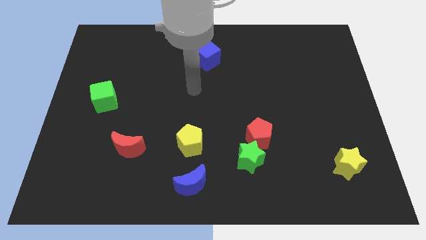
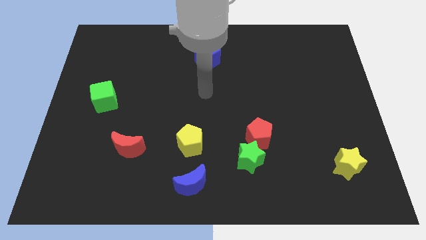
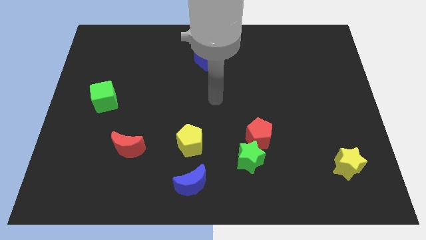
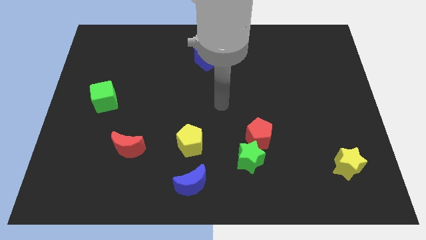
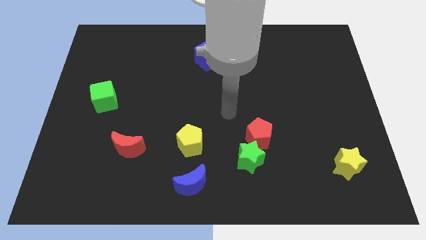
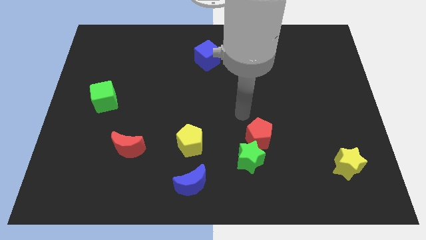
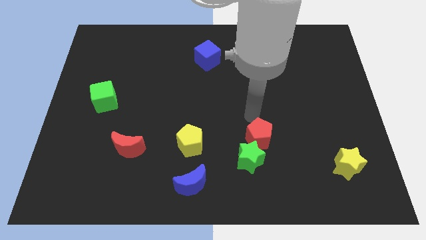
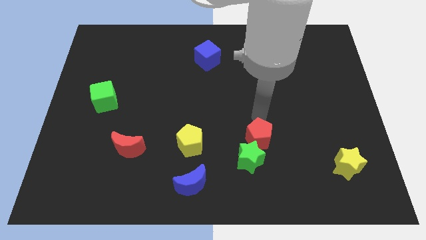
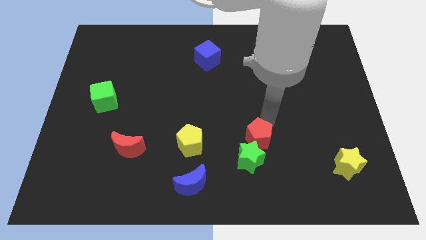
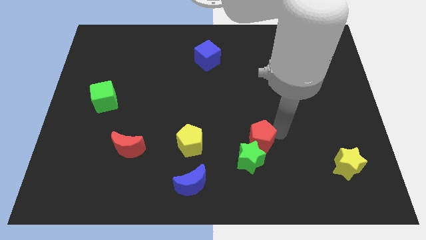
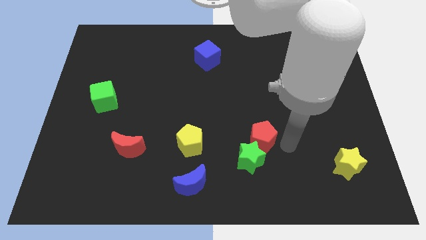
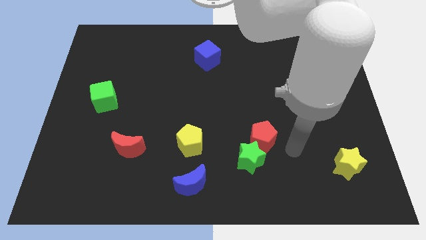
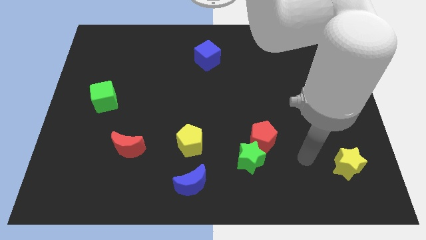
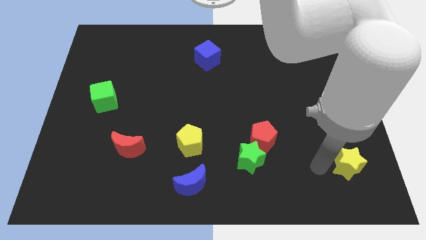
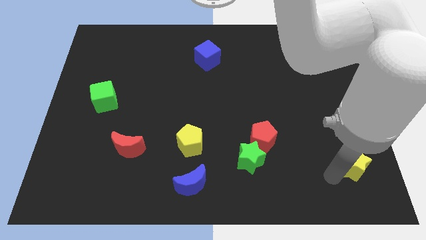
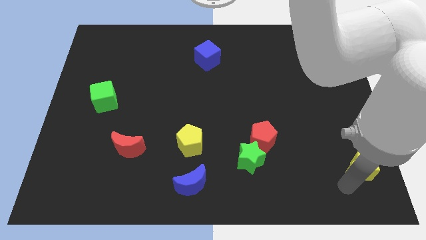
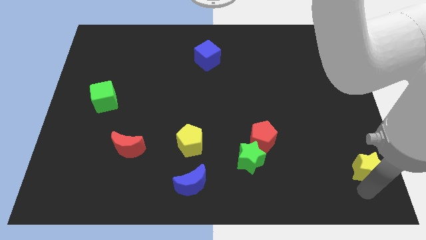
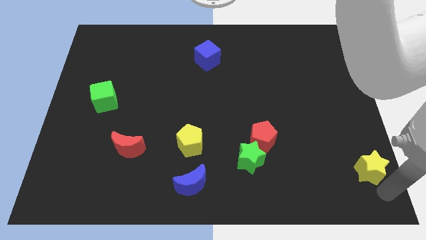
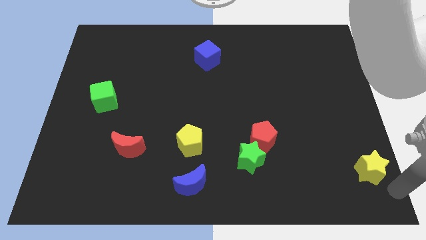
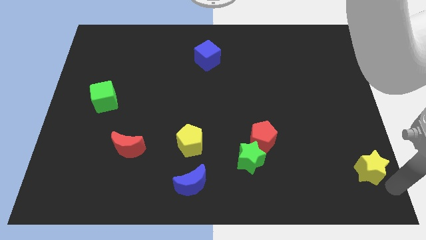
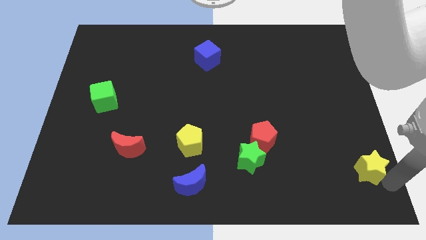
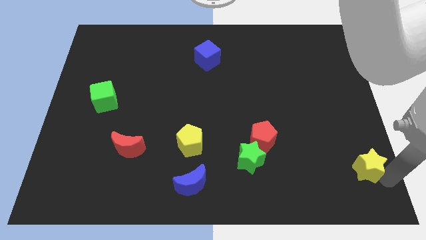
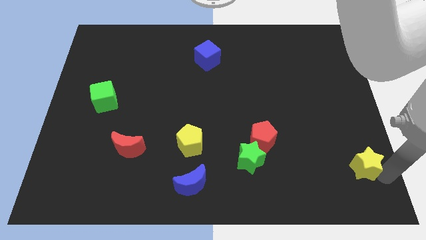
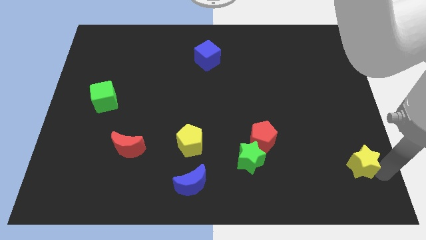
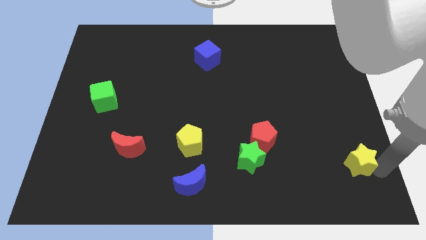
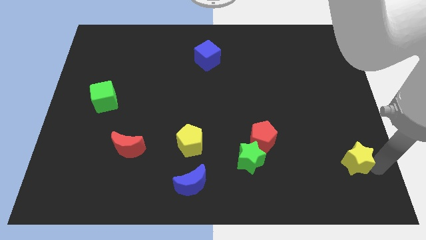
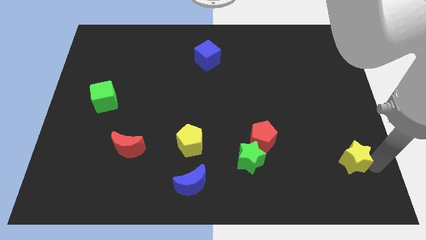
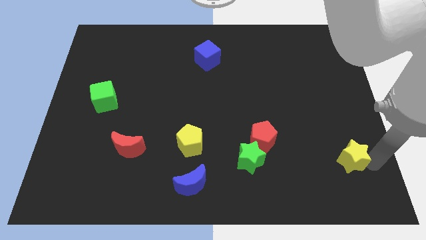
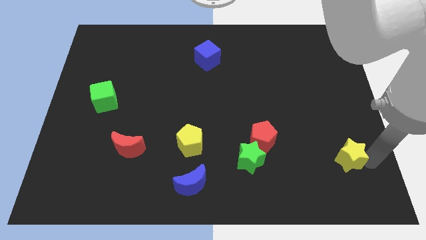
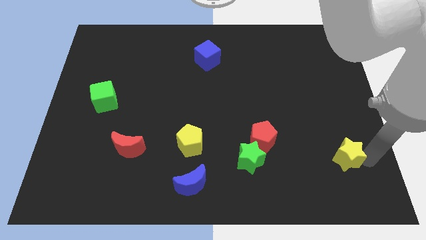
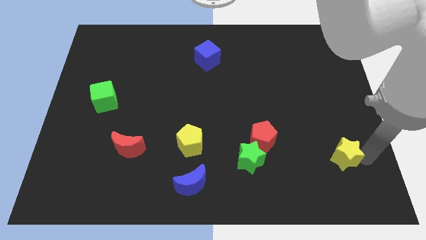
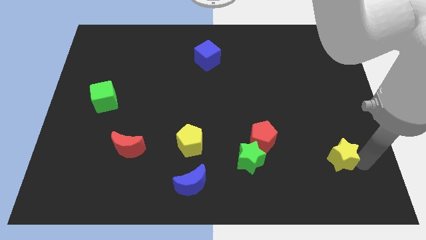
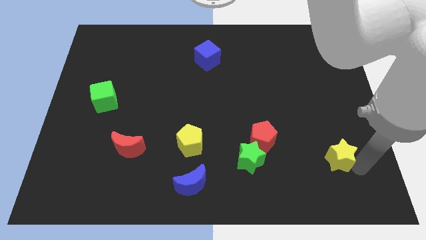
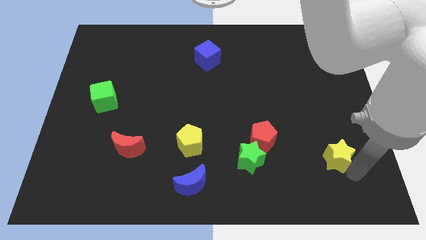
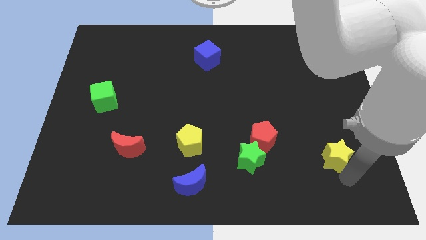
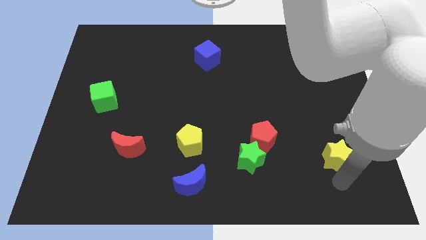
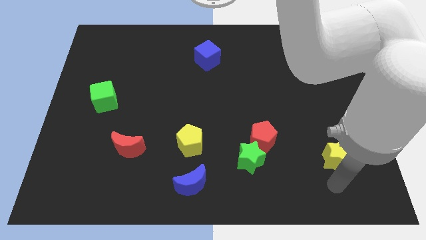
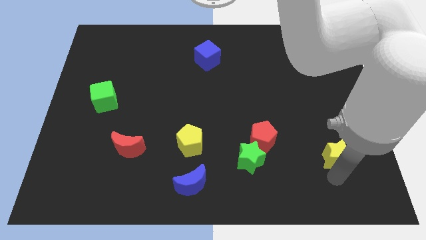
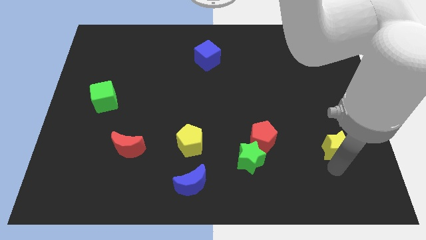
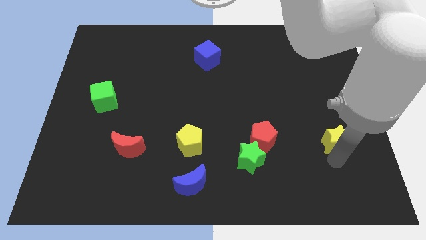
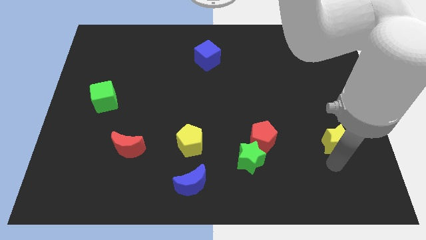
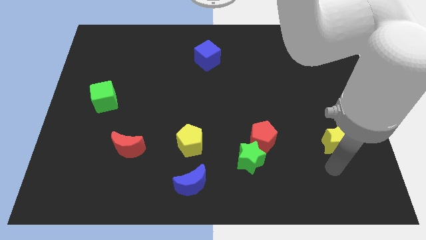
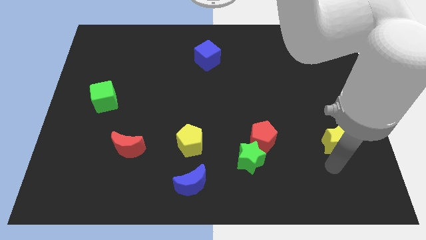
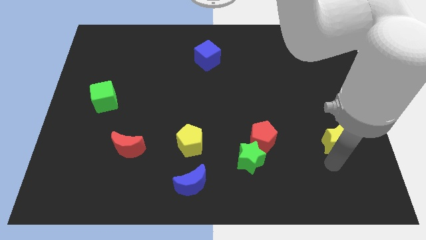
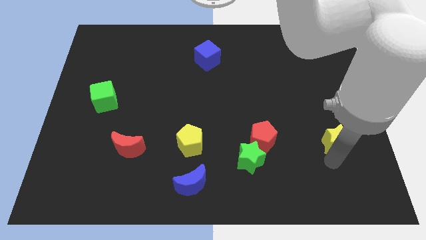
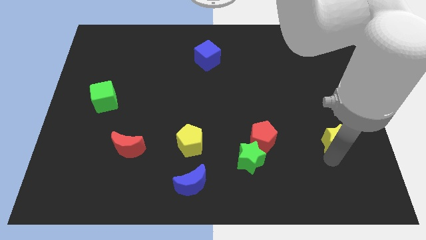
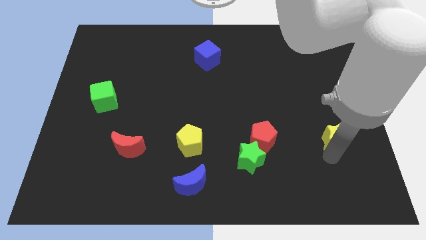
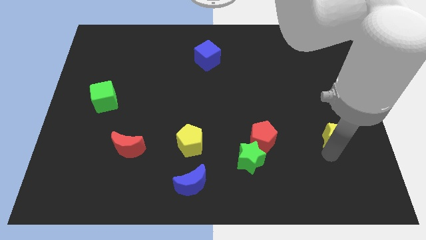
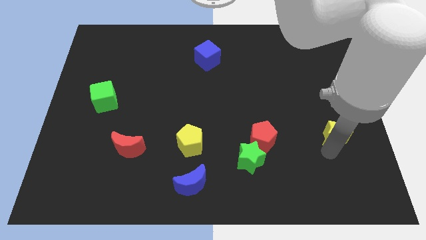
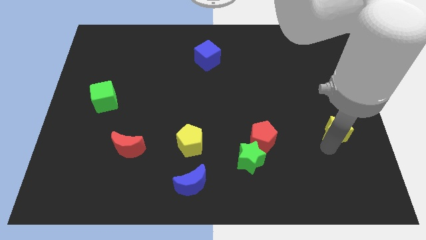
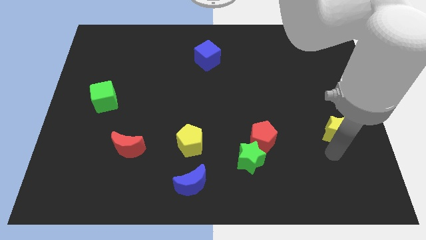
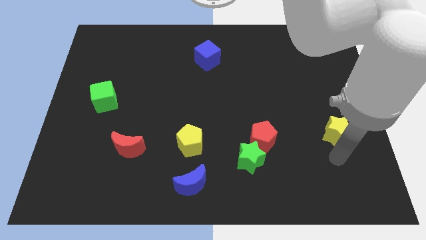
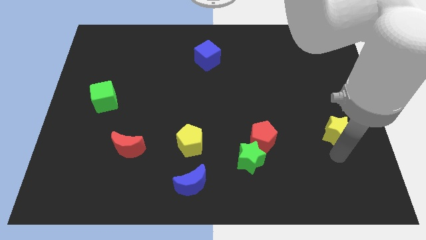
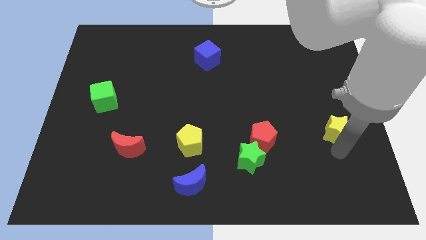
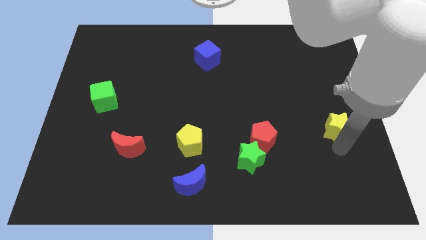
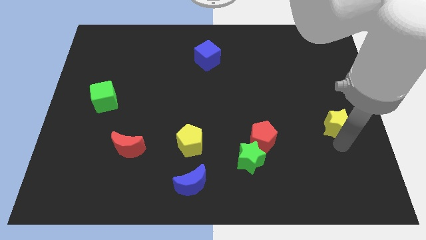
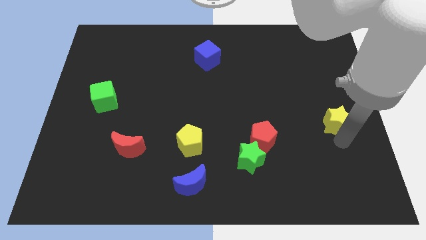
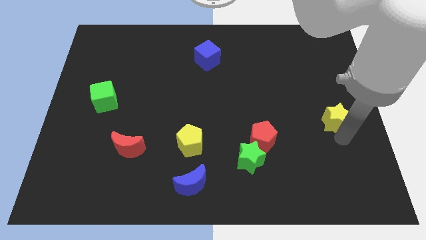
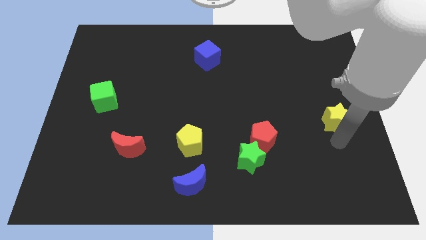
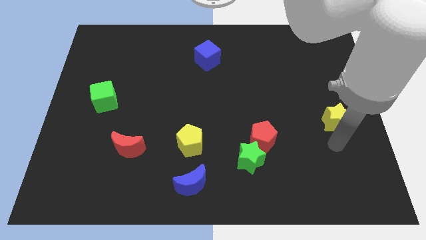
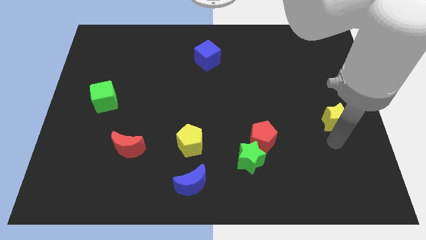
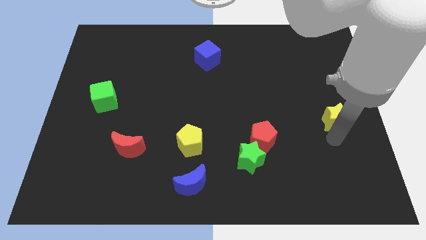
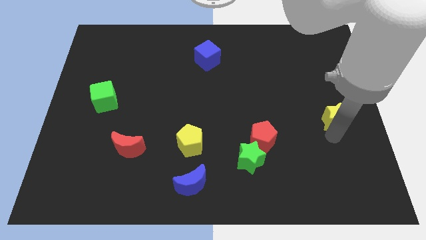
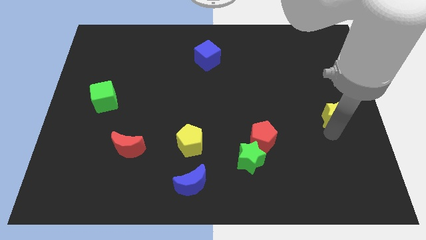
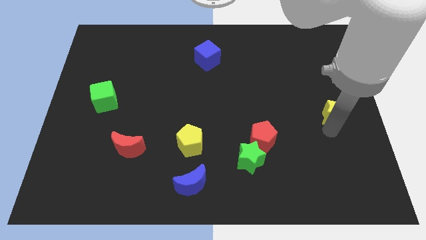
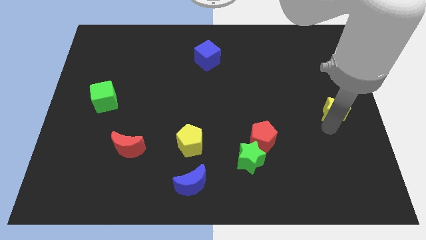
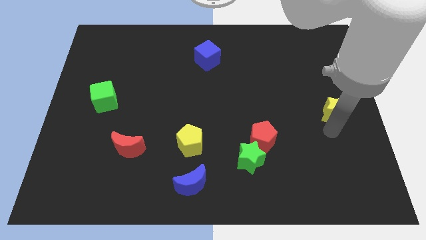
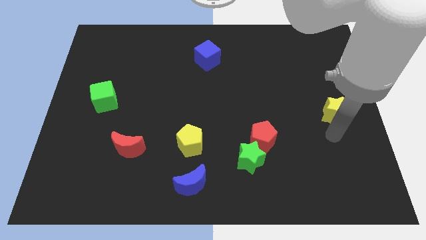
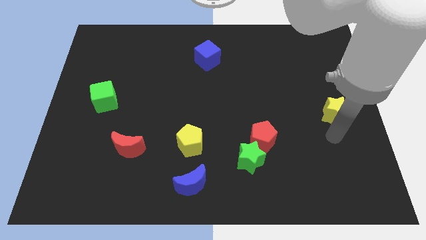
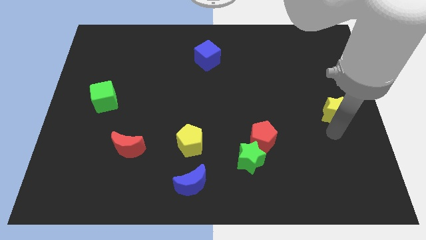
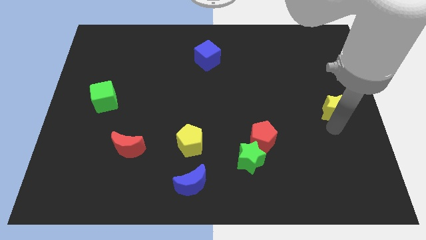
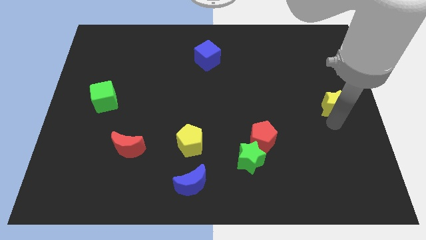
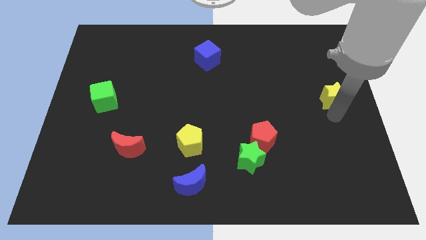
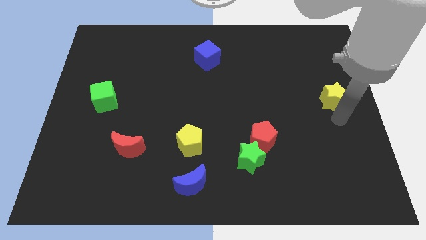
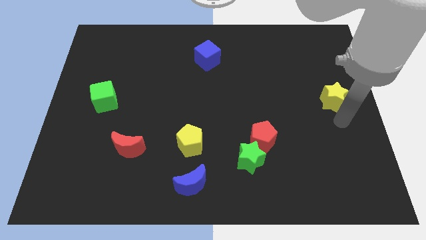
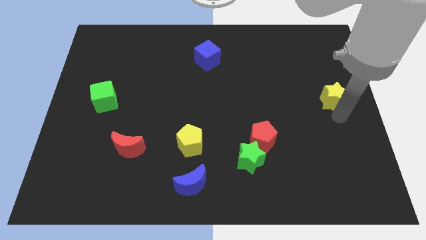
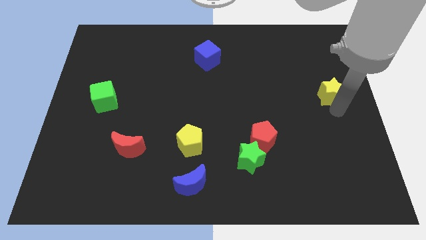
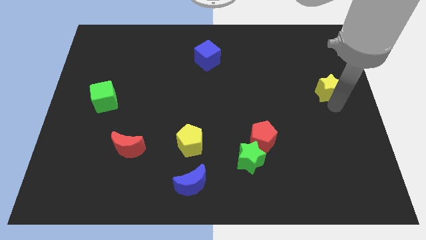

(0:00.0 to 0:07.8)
move the yellow star up

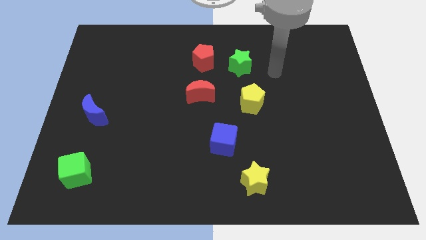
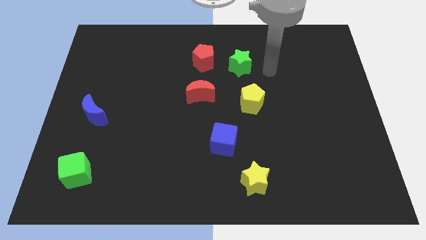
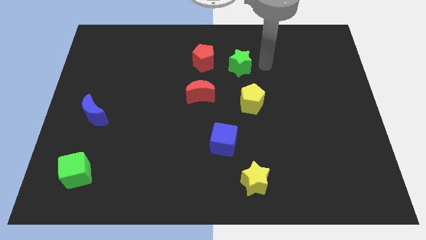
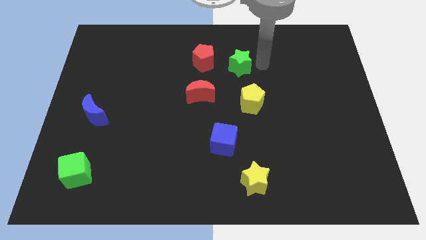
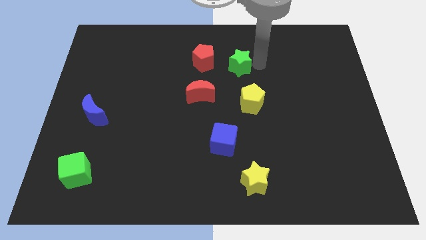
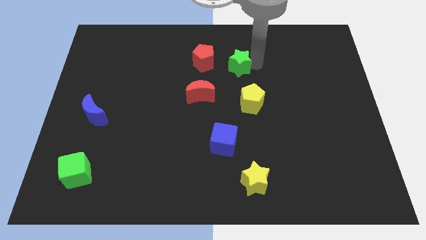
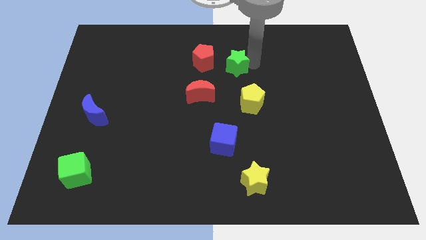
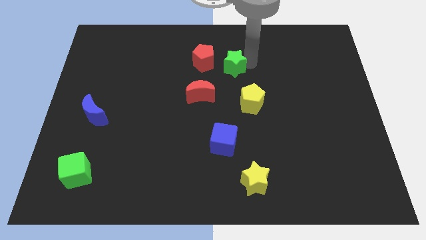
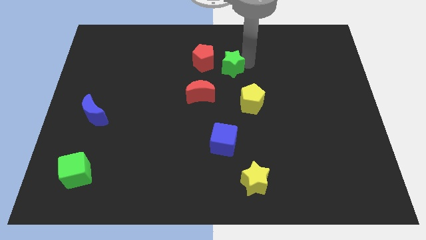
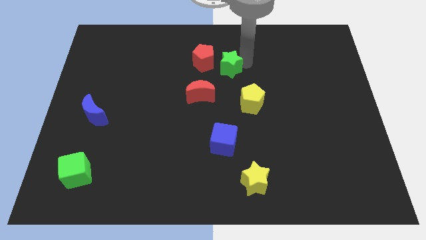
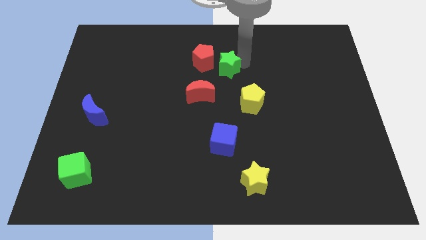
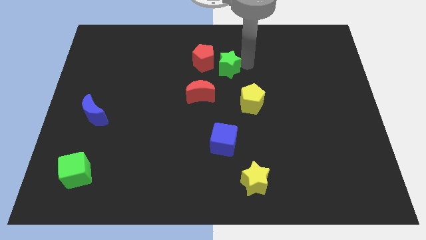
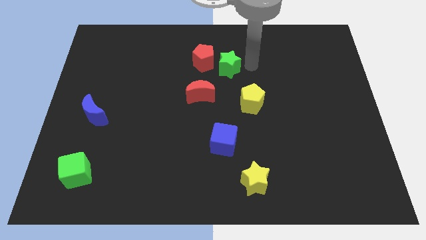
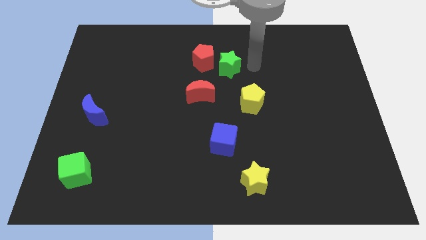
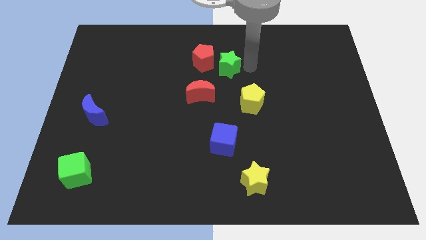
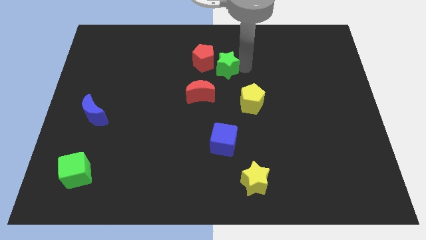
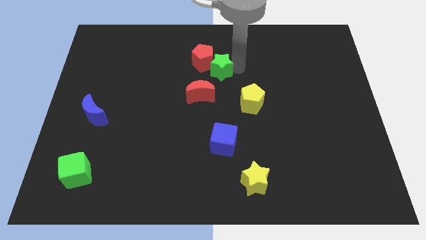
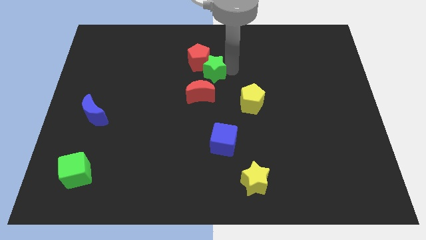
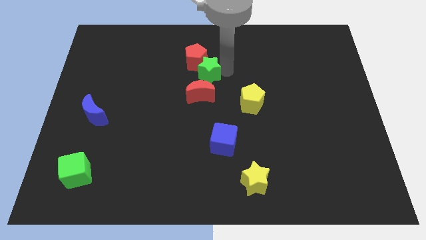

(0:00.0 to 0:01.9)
move the green star left a little
